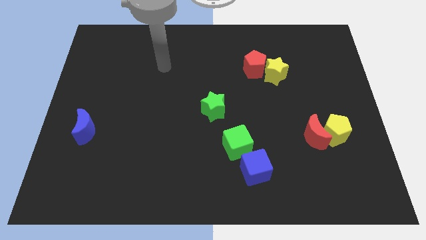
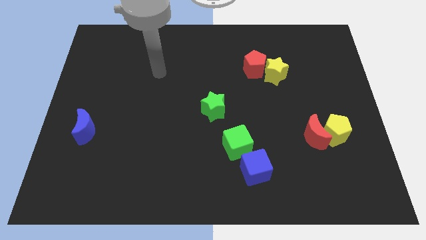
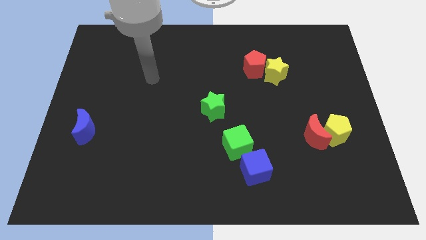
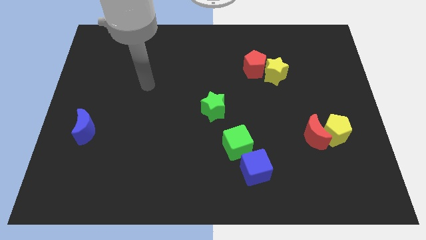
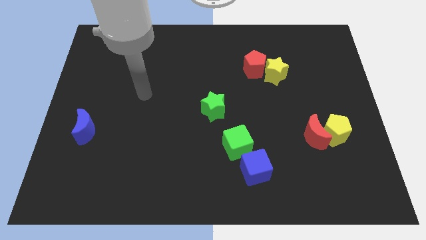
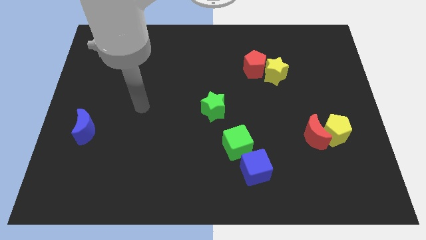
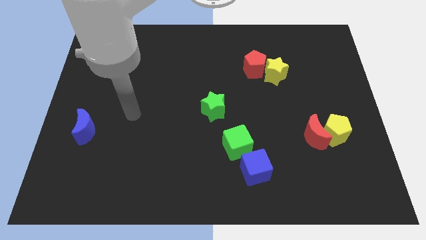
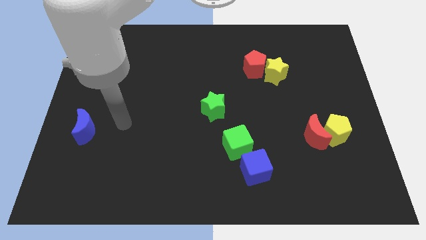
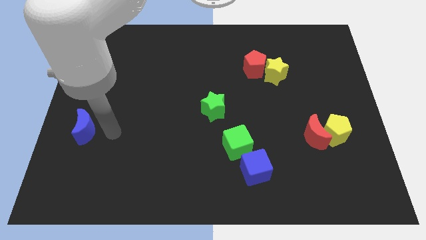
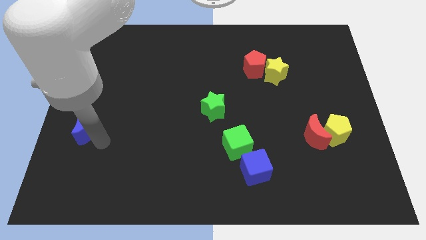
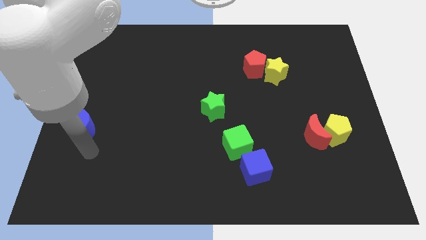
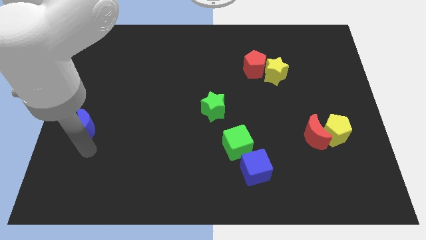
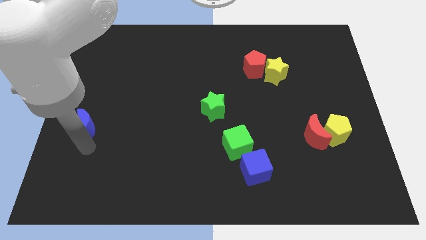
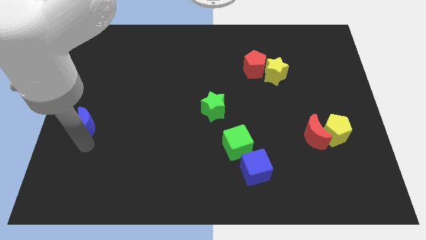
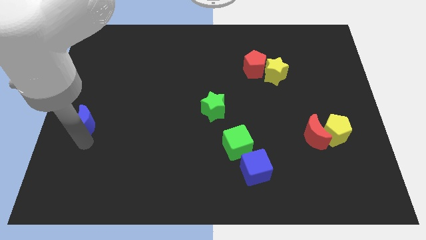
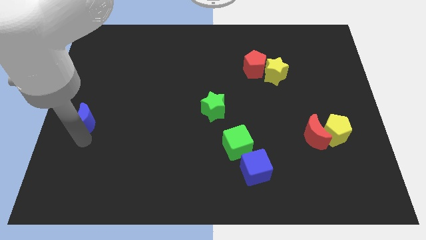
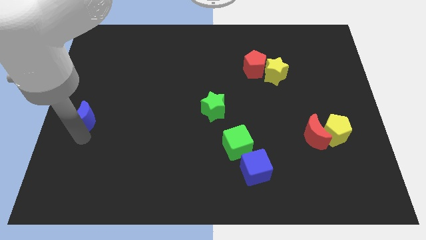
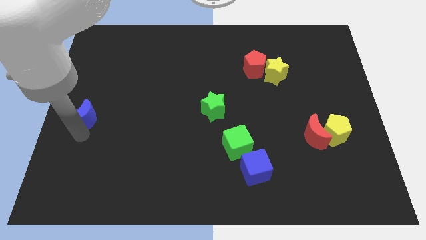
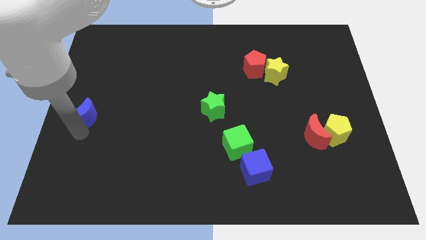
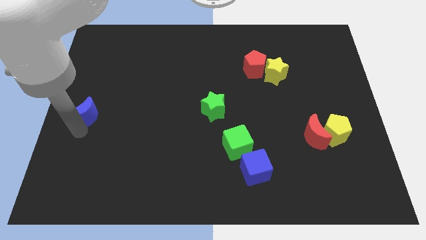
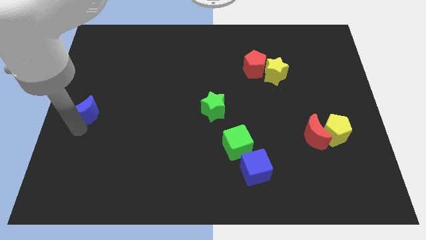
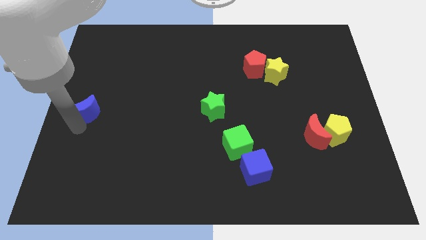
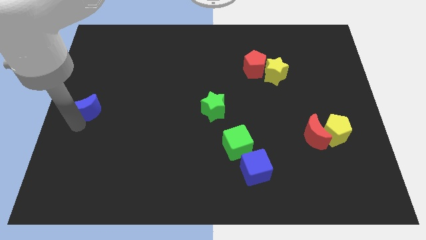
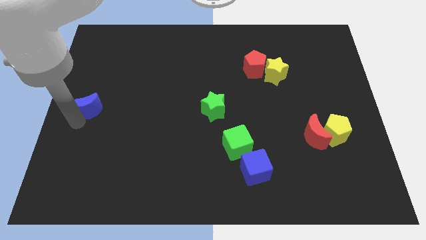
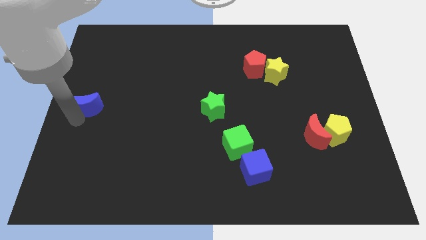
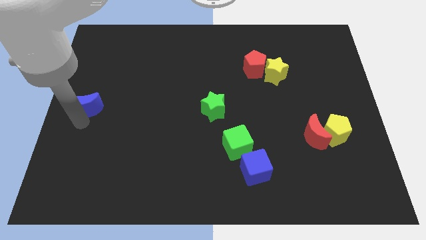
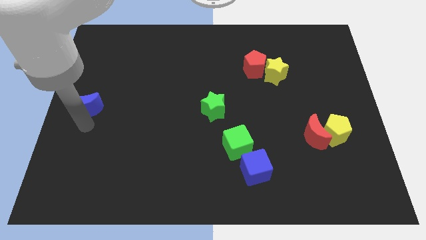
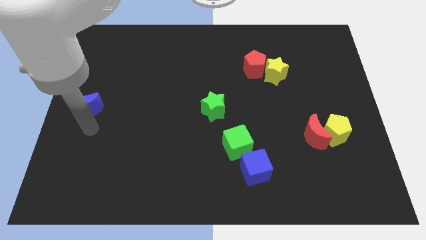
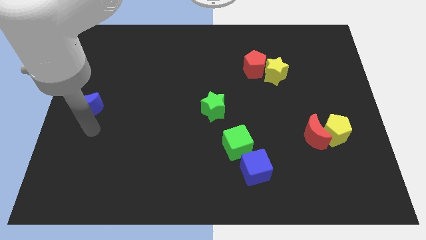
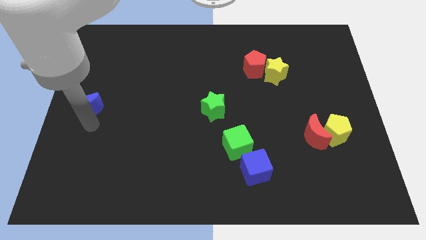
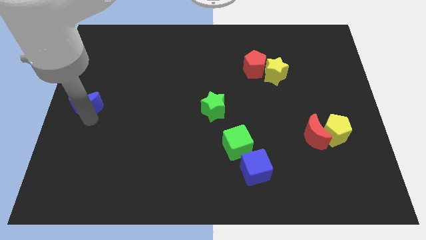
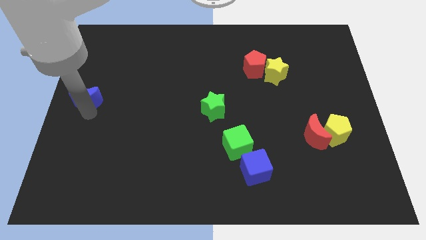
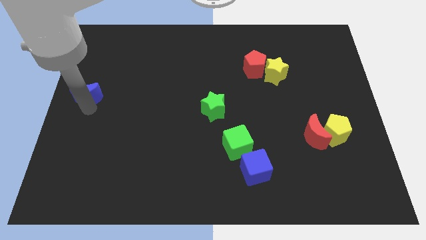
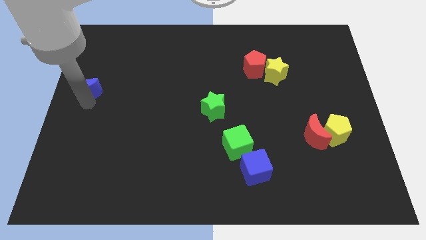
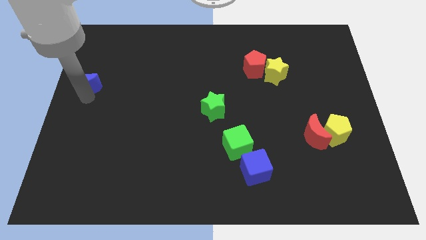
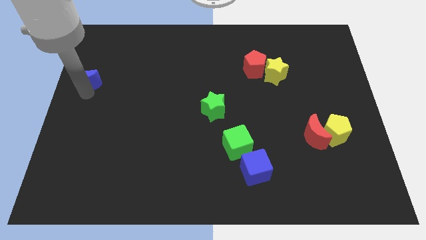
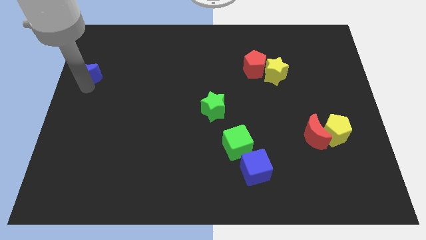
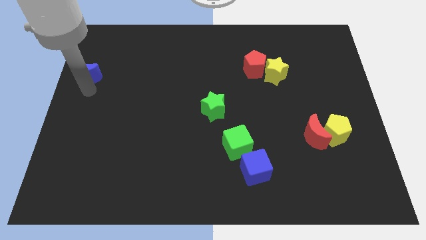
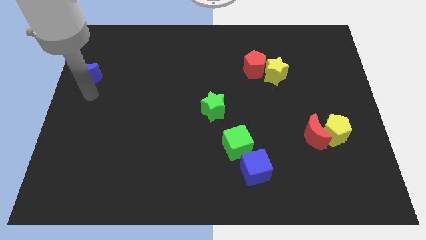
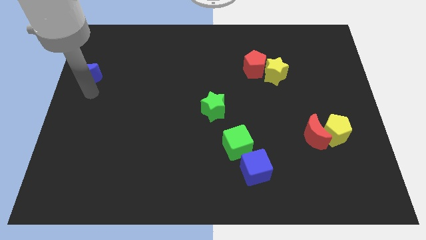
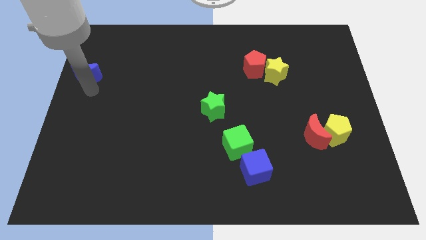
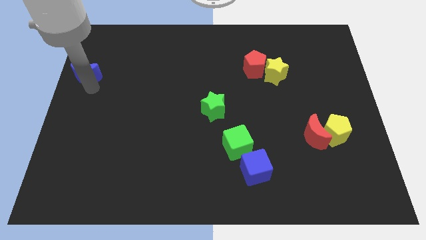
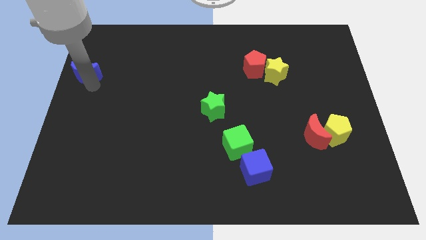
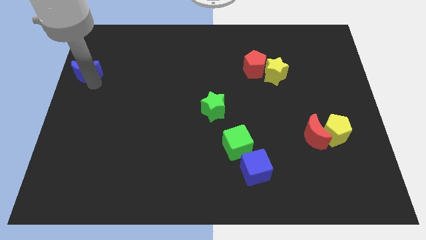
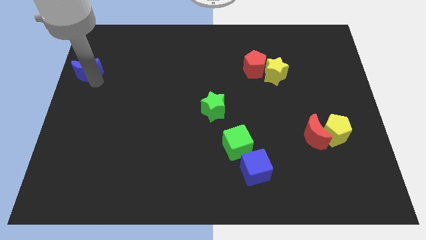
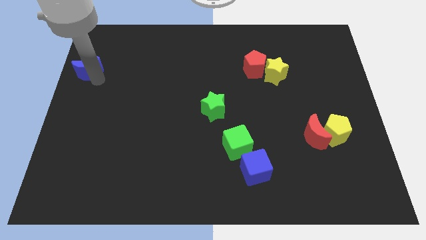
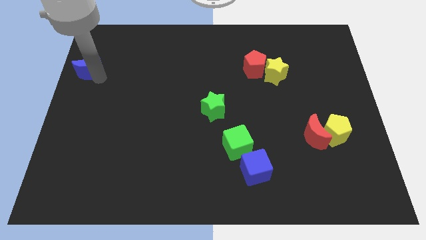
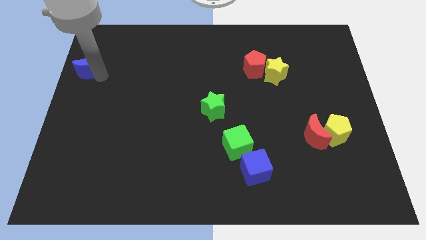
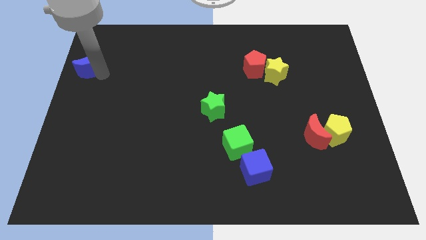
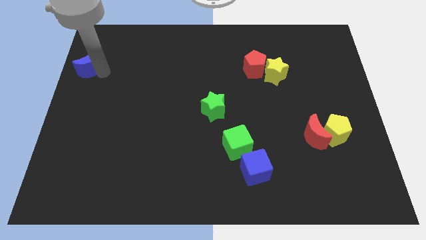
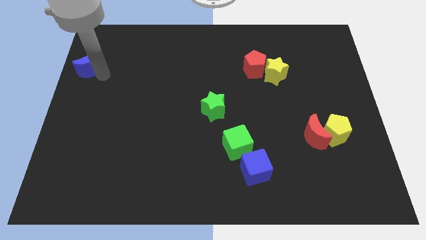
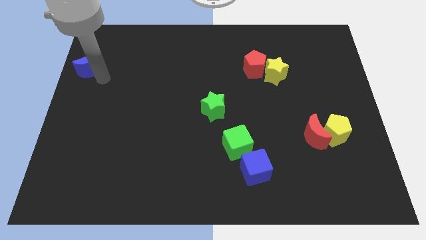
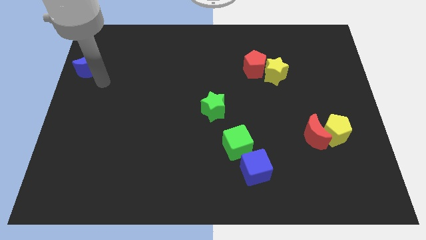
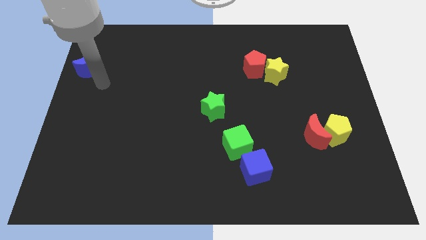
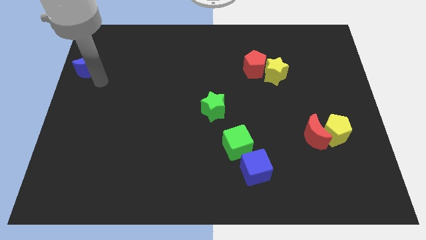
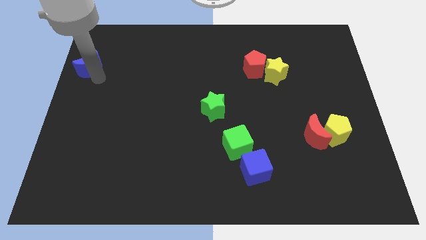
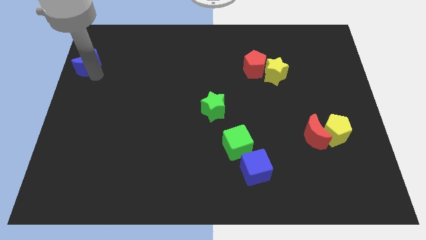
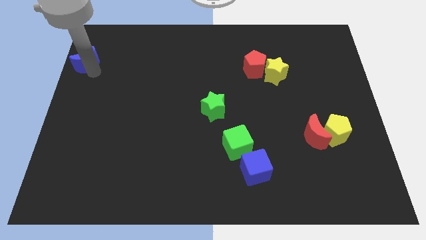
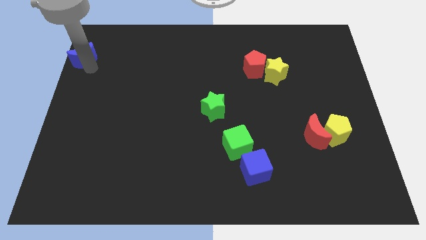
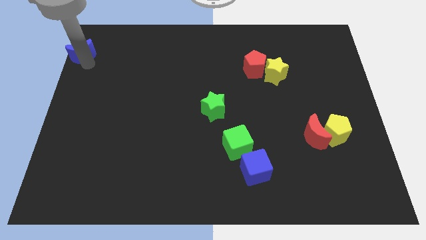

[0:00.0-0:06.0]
put the blue moon to the top left
